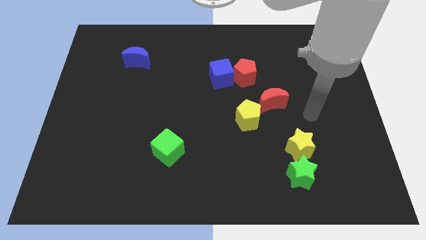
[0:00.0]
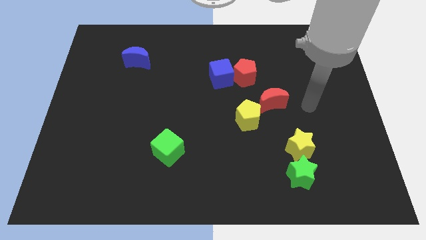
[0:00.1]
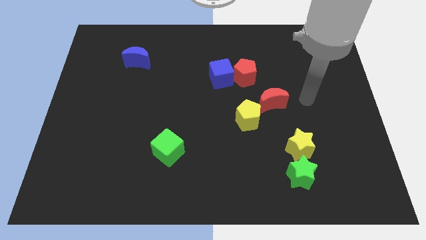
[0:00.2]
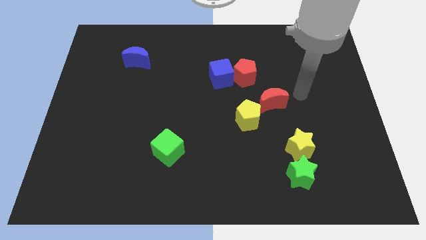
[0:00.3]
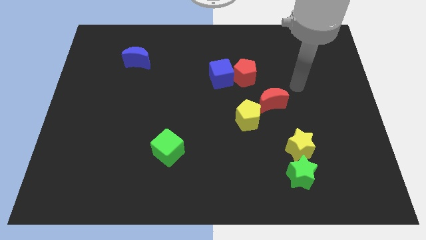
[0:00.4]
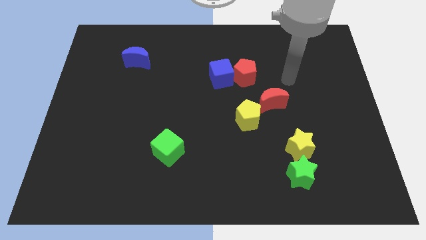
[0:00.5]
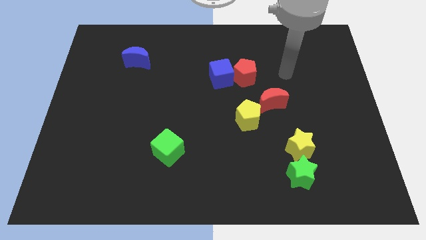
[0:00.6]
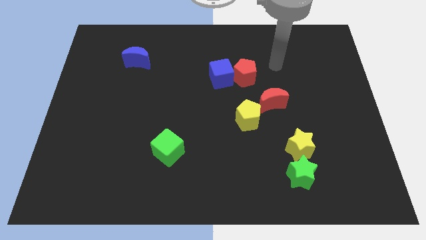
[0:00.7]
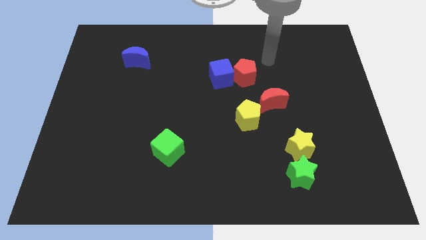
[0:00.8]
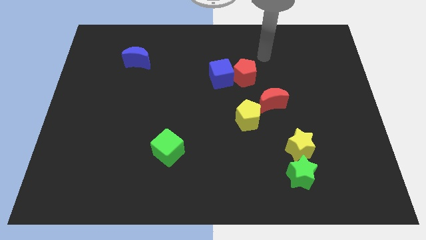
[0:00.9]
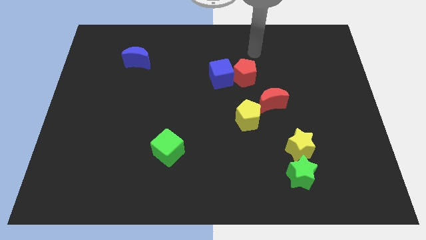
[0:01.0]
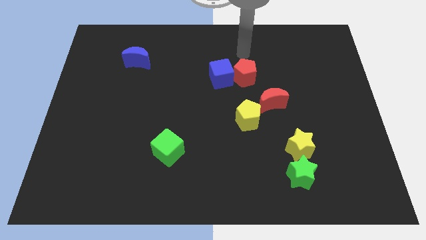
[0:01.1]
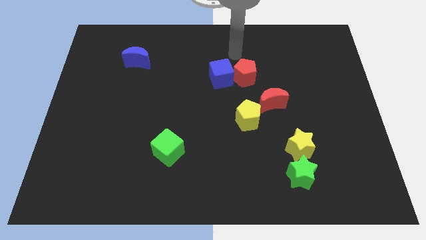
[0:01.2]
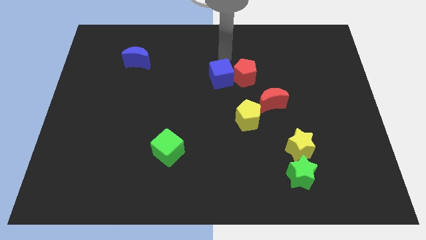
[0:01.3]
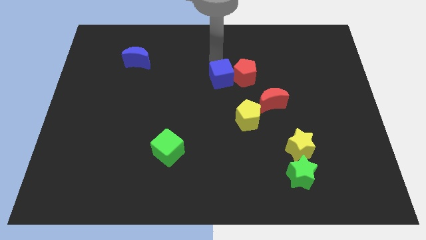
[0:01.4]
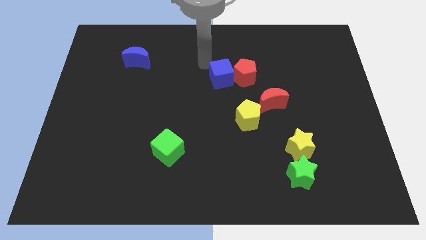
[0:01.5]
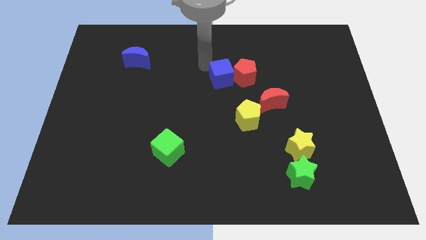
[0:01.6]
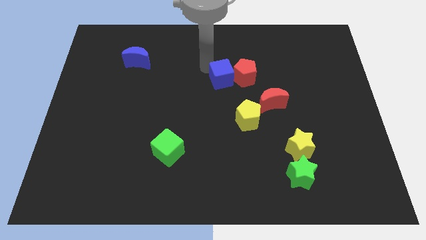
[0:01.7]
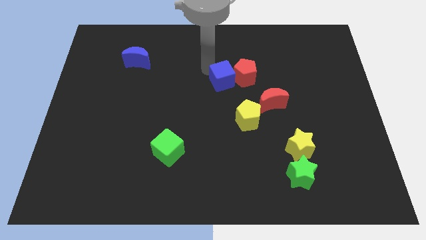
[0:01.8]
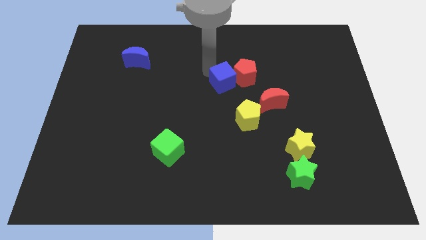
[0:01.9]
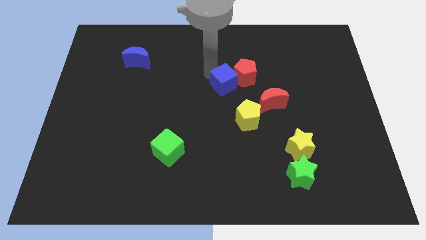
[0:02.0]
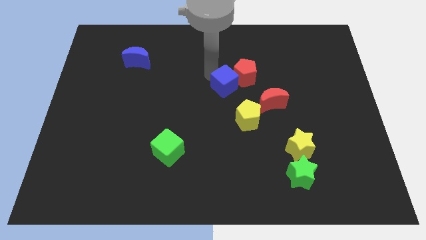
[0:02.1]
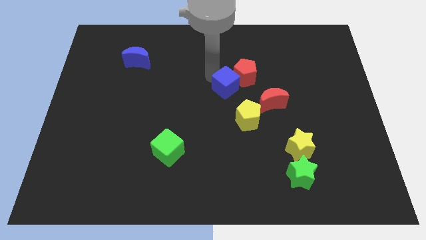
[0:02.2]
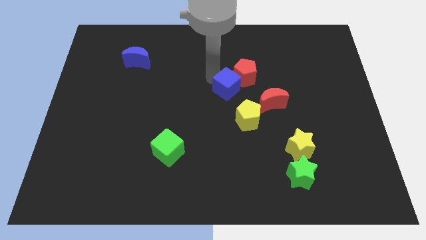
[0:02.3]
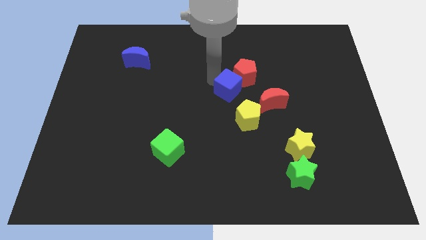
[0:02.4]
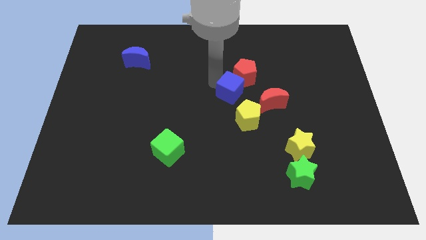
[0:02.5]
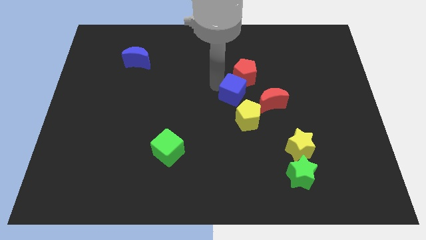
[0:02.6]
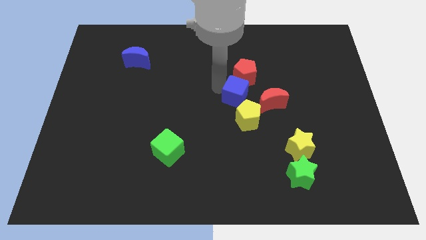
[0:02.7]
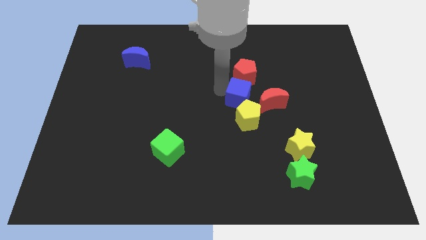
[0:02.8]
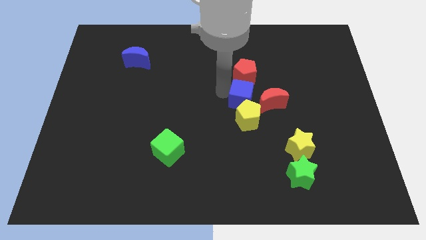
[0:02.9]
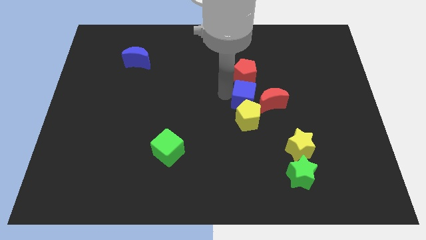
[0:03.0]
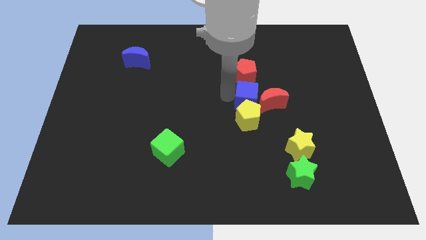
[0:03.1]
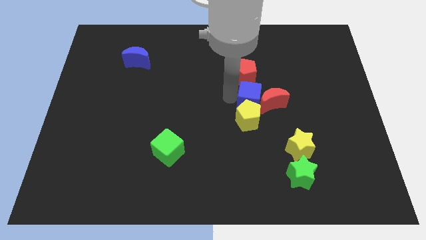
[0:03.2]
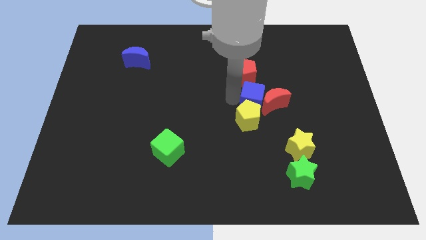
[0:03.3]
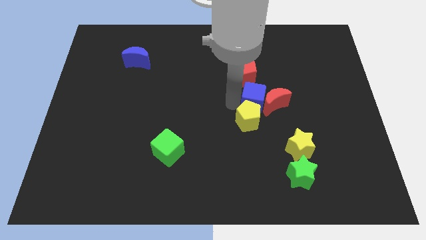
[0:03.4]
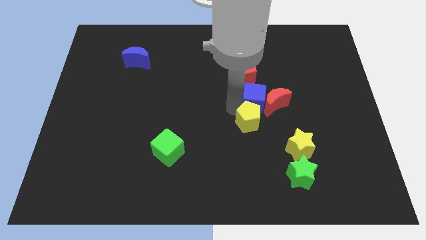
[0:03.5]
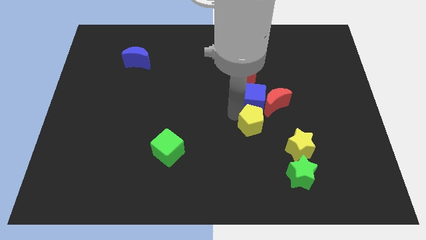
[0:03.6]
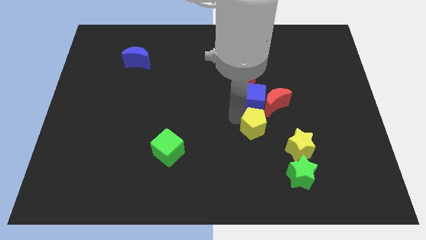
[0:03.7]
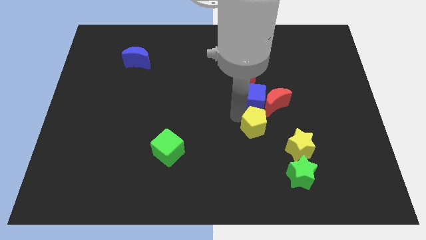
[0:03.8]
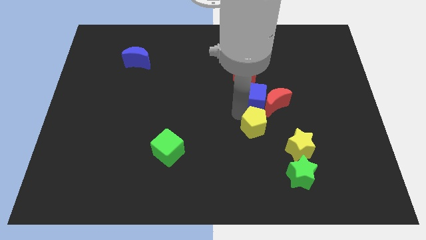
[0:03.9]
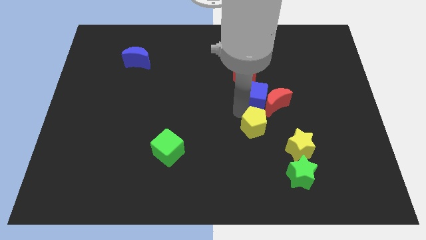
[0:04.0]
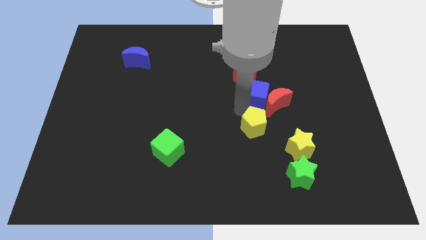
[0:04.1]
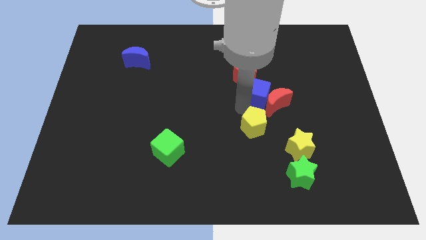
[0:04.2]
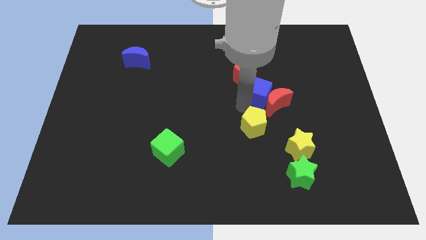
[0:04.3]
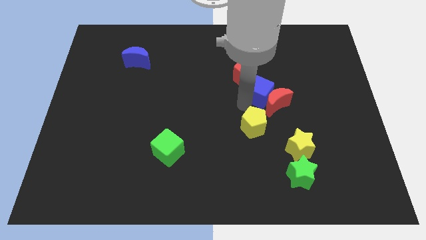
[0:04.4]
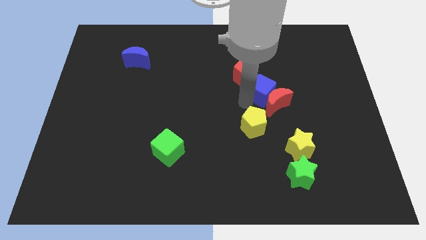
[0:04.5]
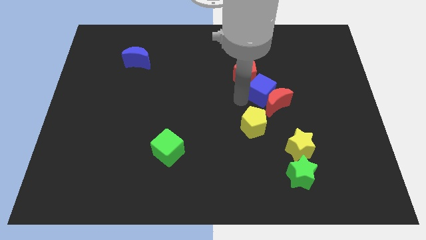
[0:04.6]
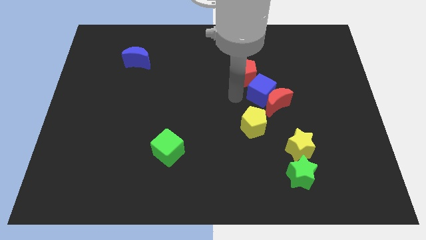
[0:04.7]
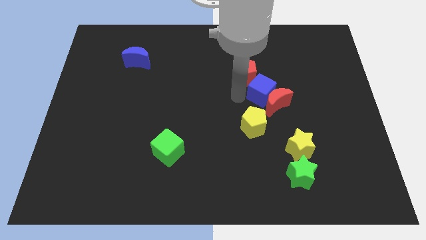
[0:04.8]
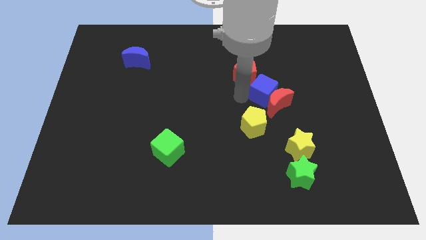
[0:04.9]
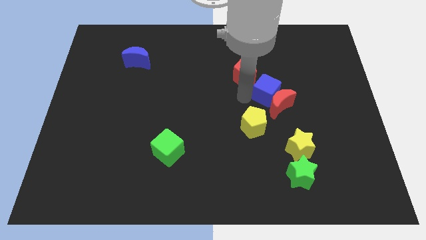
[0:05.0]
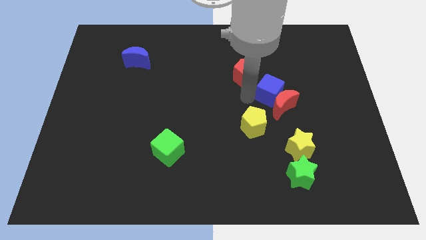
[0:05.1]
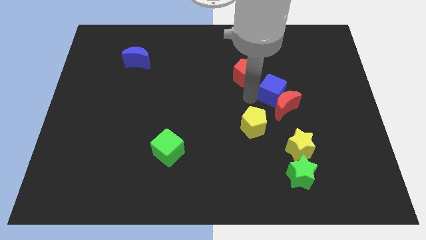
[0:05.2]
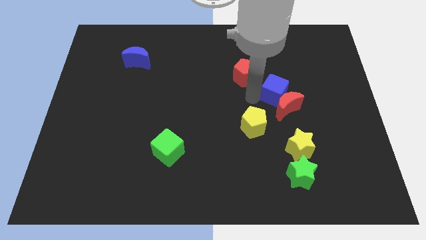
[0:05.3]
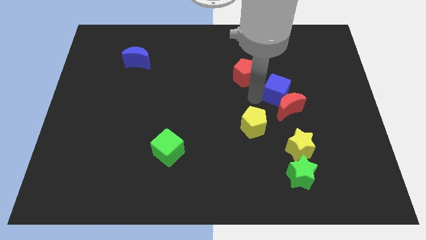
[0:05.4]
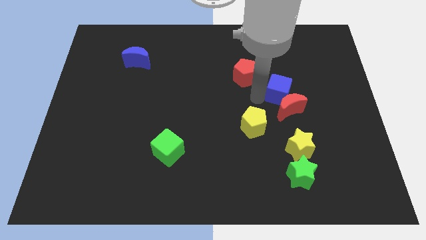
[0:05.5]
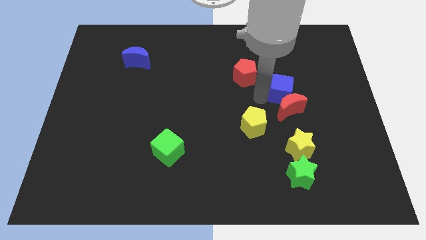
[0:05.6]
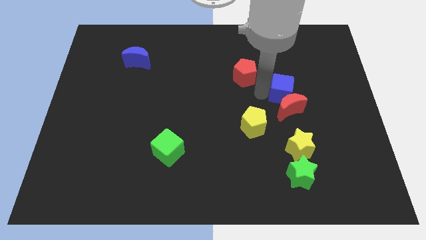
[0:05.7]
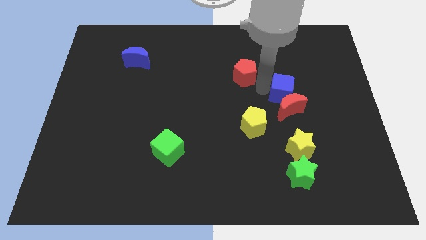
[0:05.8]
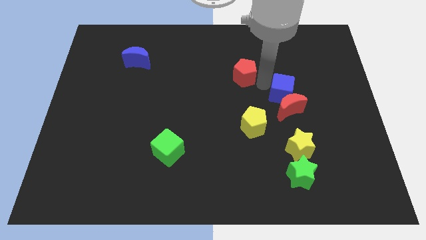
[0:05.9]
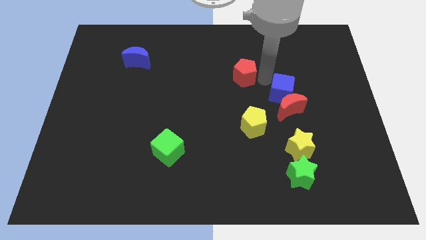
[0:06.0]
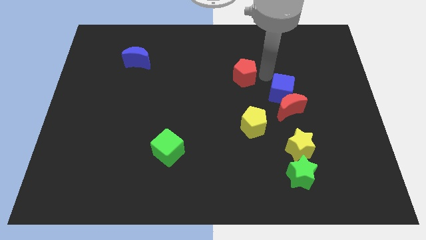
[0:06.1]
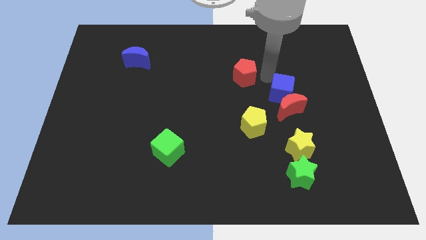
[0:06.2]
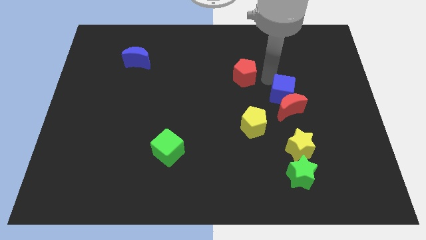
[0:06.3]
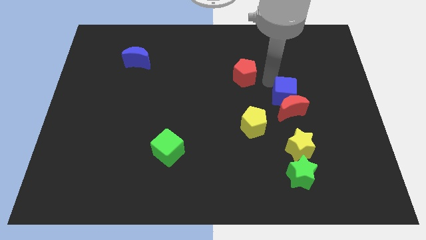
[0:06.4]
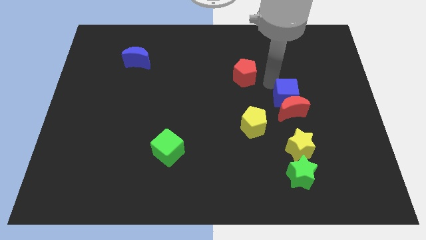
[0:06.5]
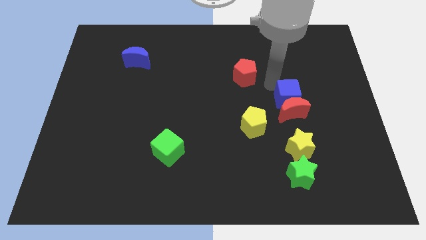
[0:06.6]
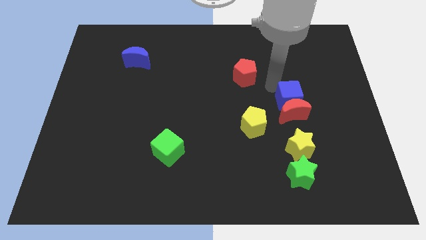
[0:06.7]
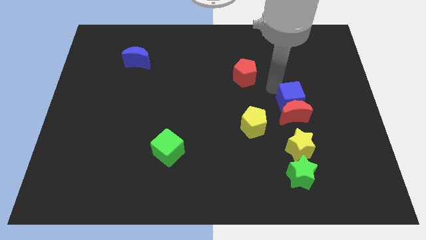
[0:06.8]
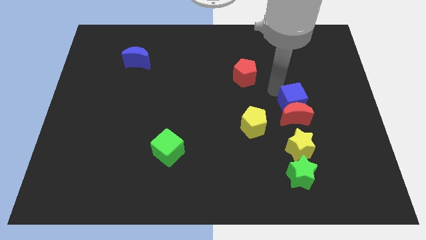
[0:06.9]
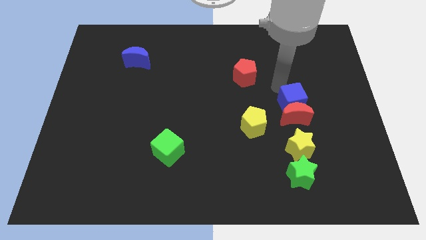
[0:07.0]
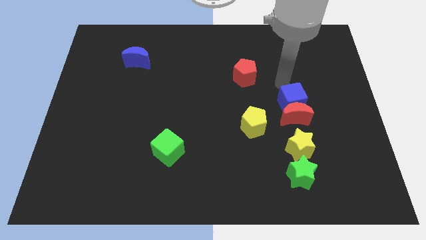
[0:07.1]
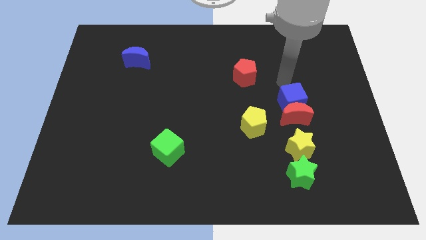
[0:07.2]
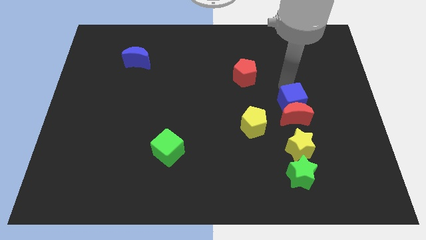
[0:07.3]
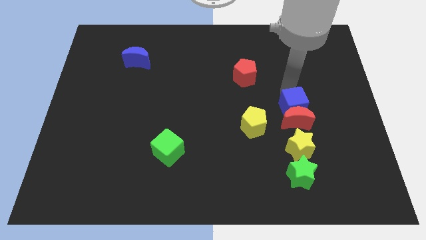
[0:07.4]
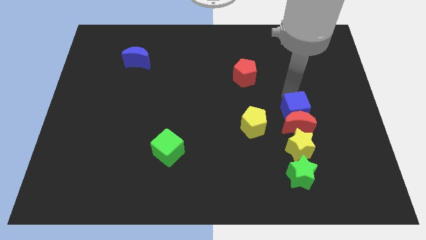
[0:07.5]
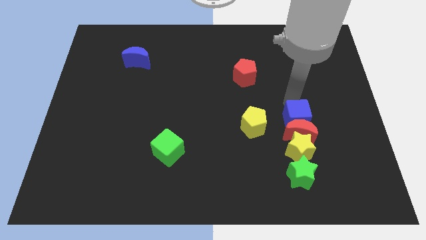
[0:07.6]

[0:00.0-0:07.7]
slide the blue cube downwards and to the right
